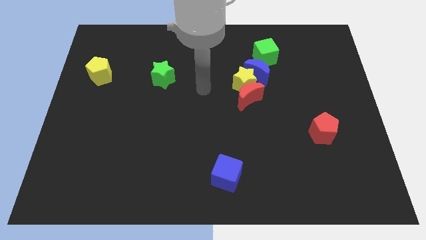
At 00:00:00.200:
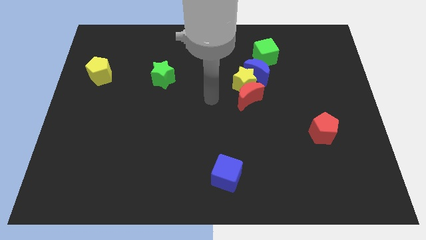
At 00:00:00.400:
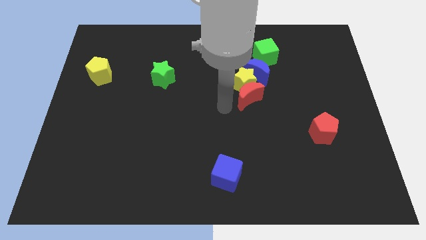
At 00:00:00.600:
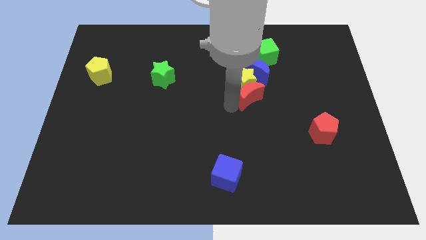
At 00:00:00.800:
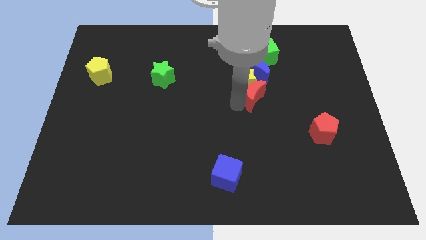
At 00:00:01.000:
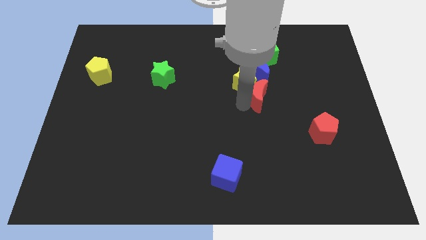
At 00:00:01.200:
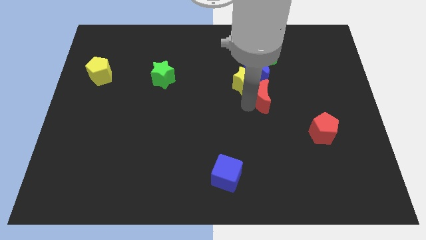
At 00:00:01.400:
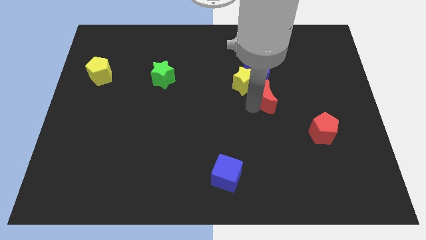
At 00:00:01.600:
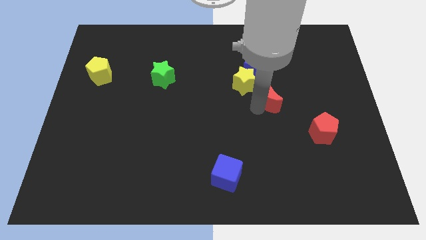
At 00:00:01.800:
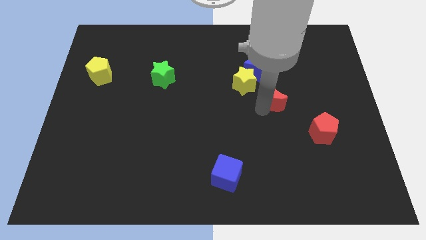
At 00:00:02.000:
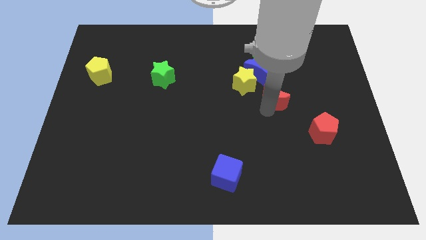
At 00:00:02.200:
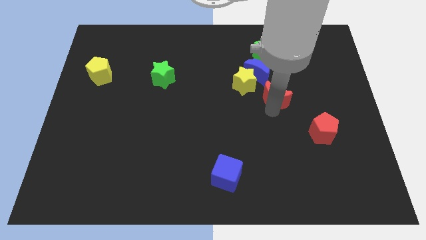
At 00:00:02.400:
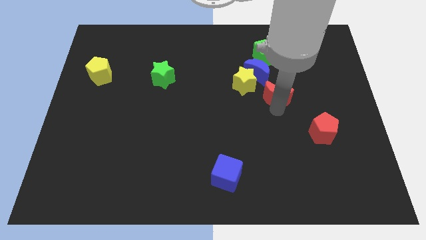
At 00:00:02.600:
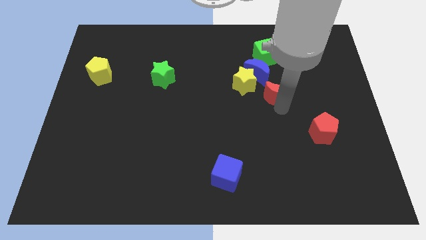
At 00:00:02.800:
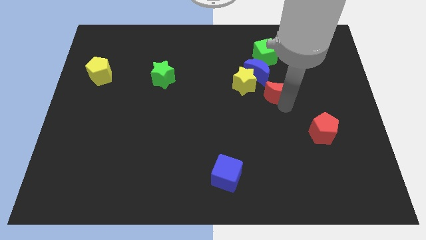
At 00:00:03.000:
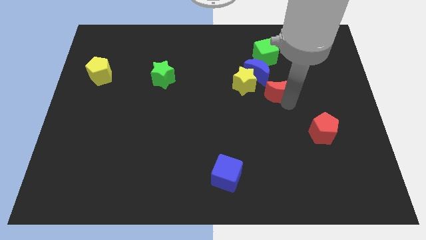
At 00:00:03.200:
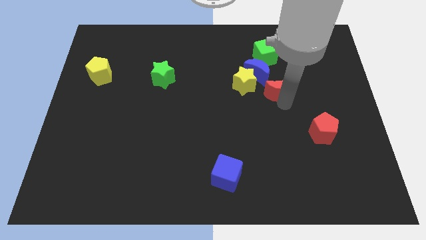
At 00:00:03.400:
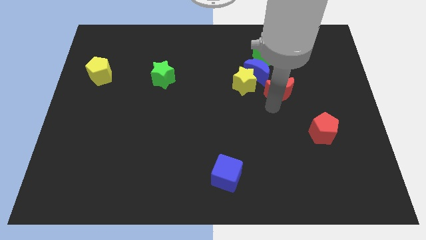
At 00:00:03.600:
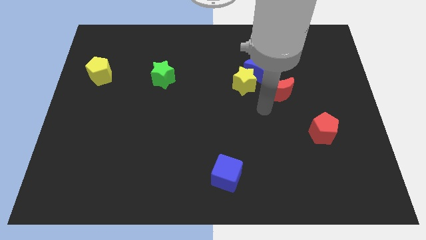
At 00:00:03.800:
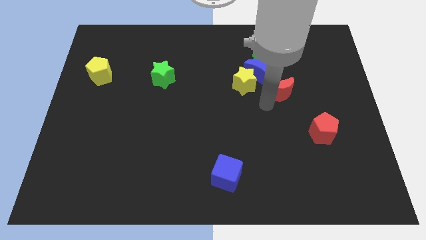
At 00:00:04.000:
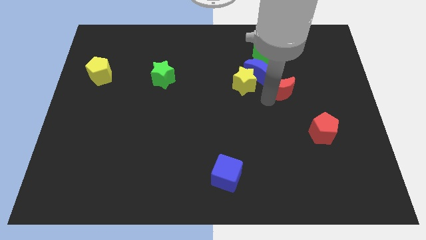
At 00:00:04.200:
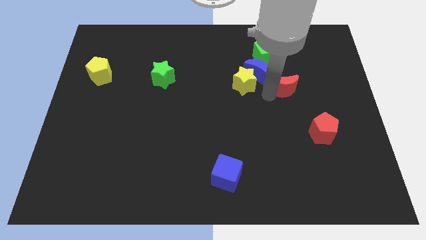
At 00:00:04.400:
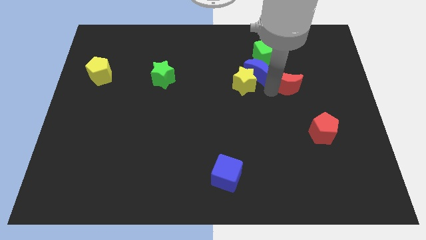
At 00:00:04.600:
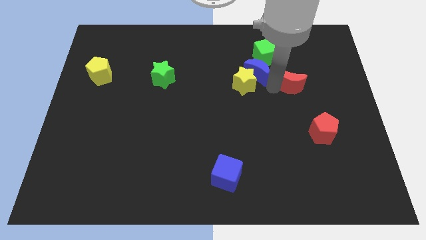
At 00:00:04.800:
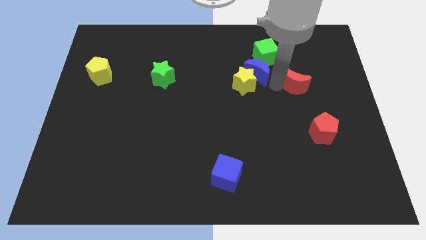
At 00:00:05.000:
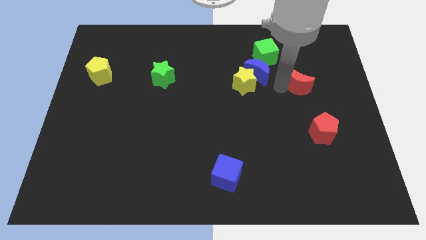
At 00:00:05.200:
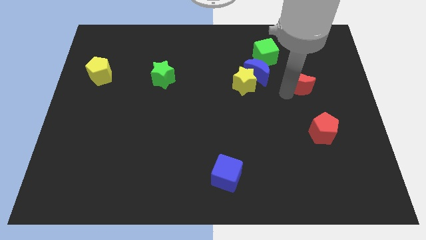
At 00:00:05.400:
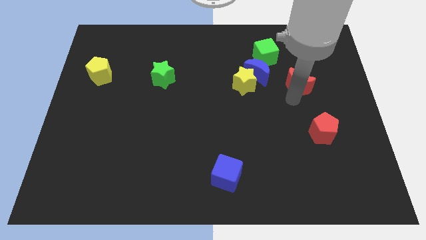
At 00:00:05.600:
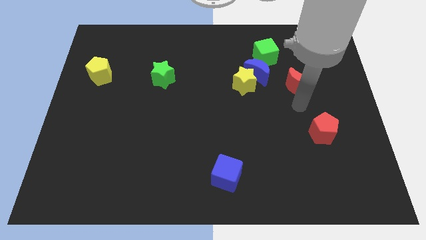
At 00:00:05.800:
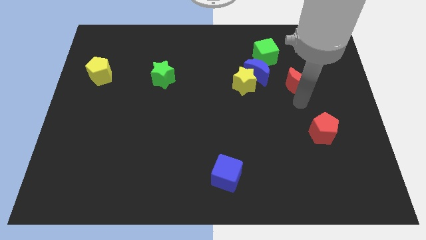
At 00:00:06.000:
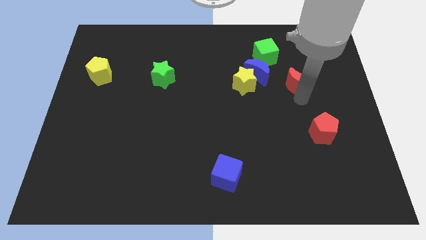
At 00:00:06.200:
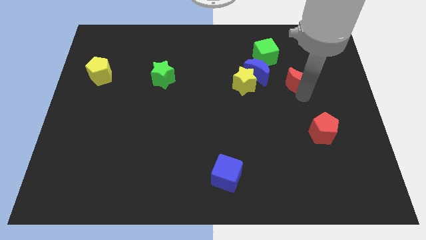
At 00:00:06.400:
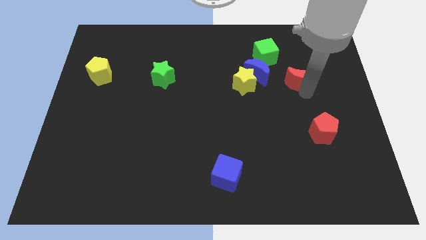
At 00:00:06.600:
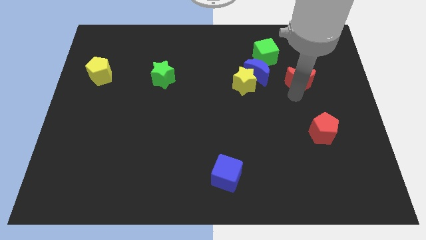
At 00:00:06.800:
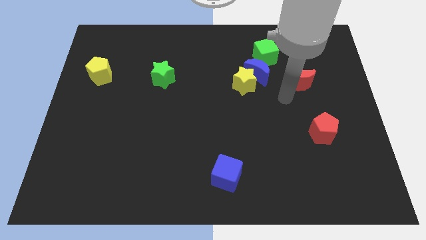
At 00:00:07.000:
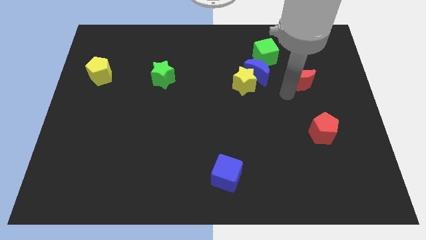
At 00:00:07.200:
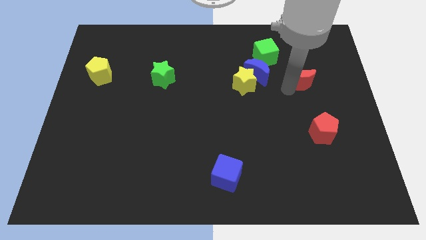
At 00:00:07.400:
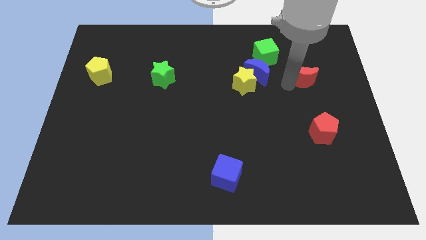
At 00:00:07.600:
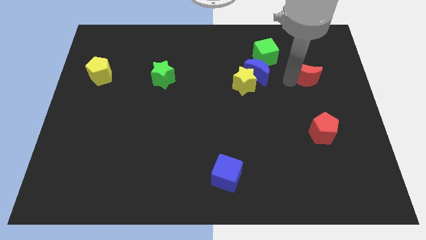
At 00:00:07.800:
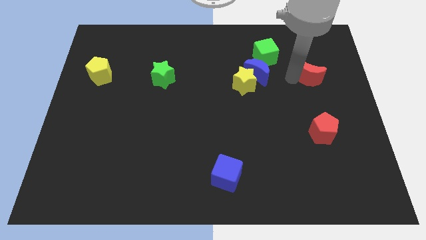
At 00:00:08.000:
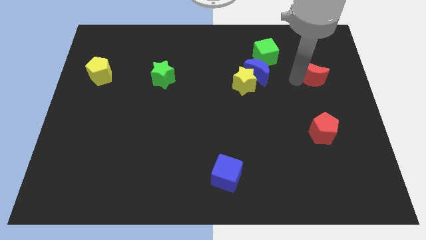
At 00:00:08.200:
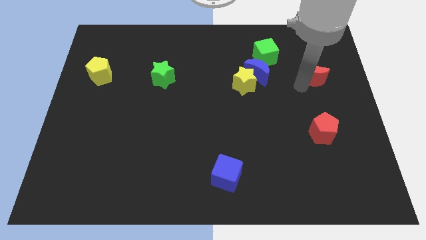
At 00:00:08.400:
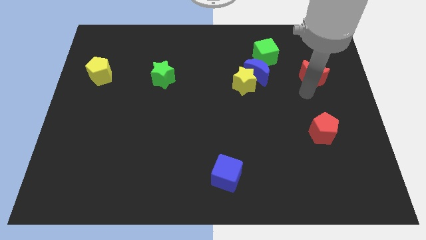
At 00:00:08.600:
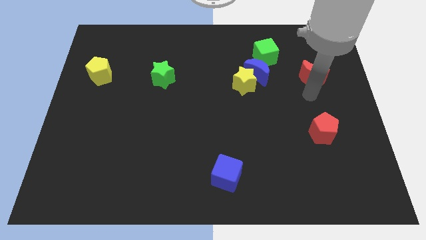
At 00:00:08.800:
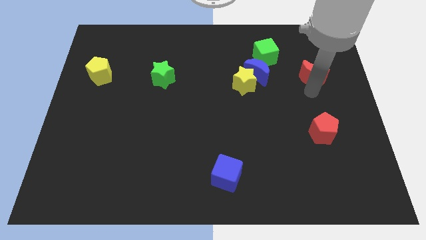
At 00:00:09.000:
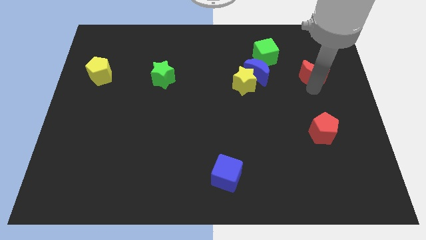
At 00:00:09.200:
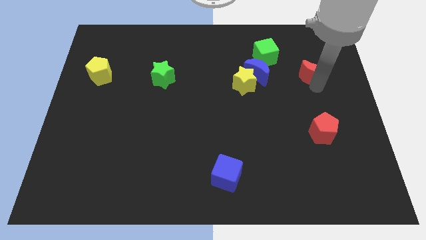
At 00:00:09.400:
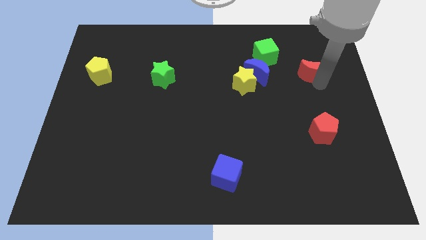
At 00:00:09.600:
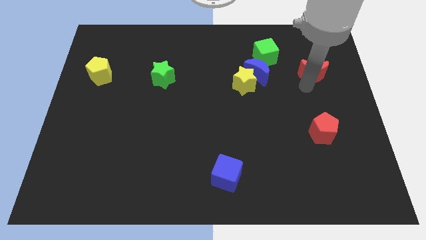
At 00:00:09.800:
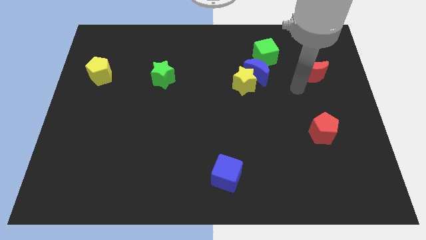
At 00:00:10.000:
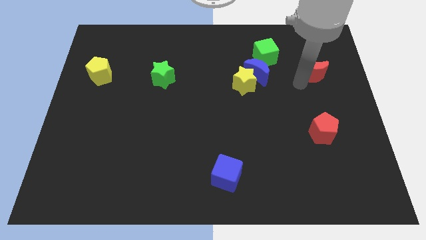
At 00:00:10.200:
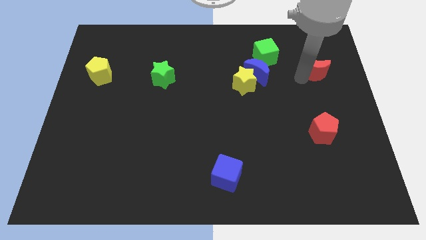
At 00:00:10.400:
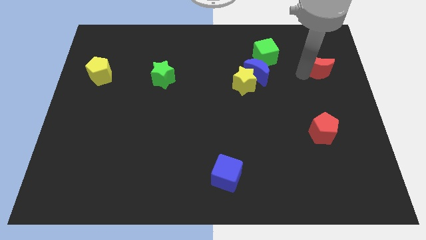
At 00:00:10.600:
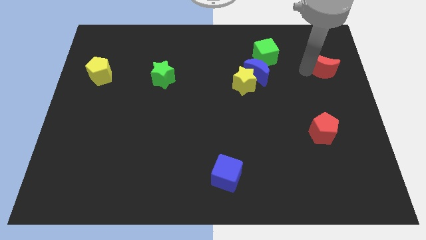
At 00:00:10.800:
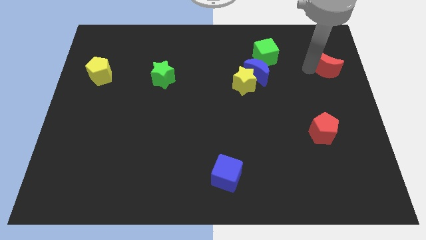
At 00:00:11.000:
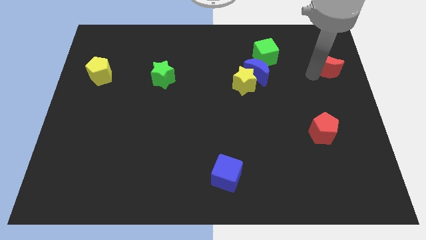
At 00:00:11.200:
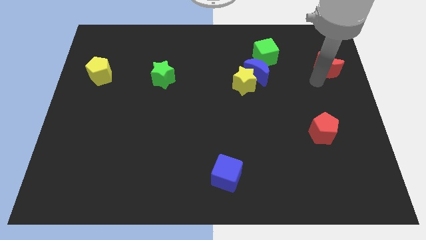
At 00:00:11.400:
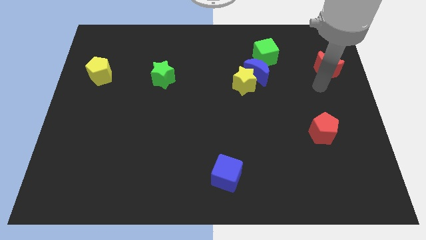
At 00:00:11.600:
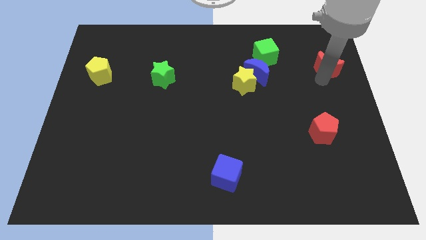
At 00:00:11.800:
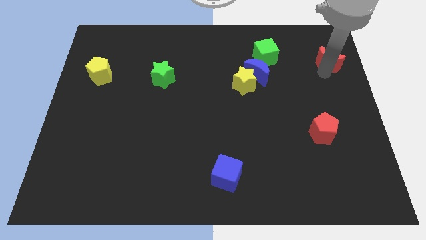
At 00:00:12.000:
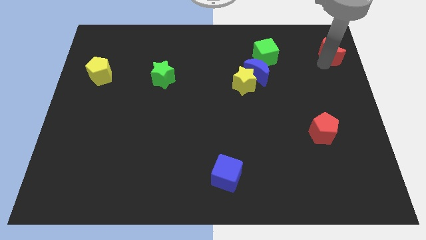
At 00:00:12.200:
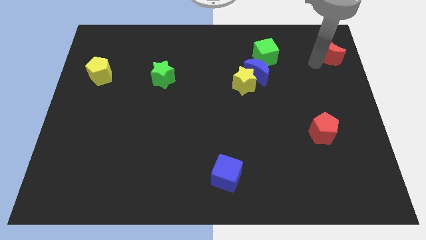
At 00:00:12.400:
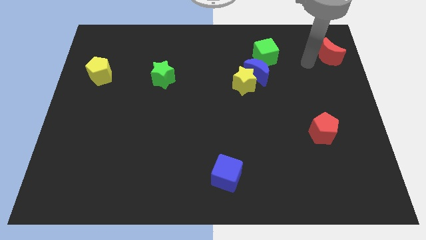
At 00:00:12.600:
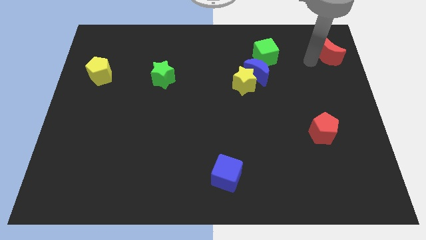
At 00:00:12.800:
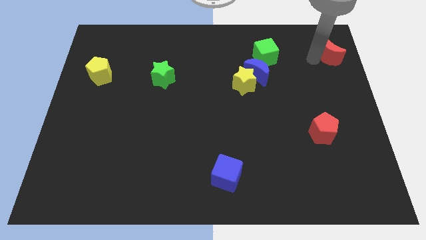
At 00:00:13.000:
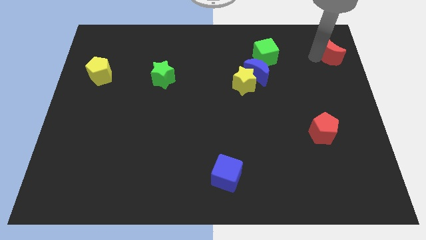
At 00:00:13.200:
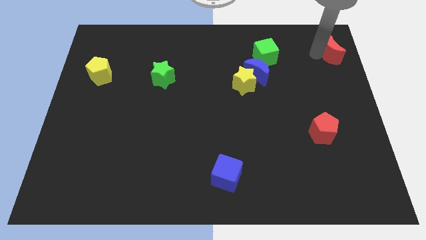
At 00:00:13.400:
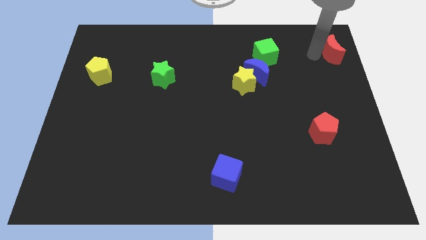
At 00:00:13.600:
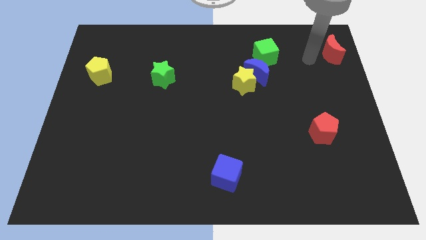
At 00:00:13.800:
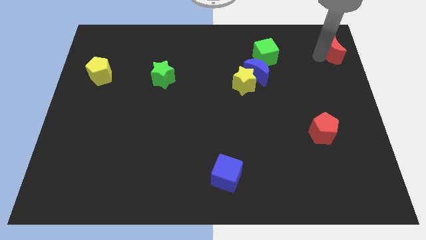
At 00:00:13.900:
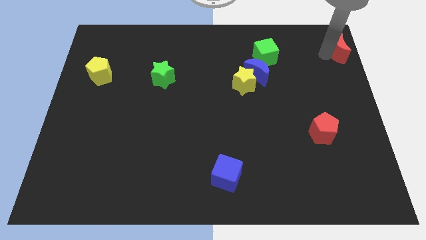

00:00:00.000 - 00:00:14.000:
push the red moon to the top right of the board
